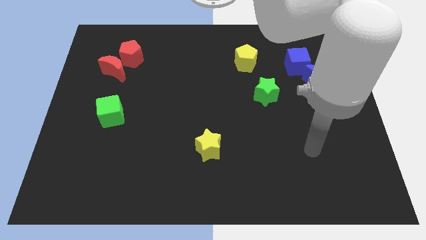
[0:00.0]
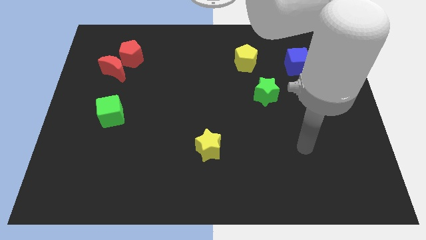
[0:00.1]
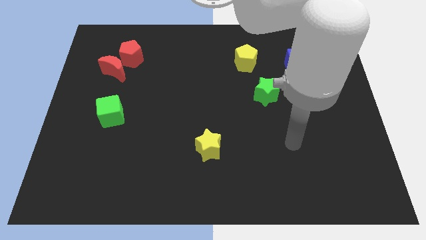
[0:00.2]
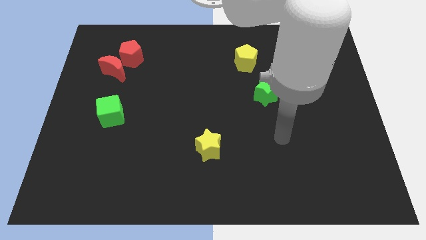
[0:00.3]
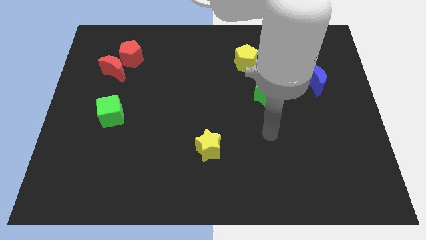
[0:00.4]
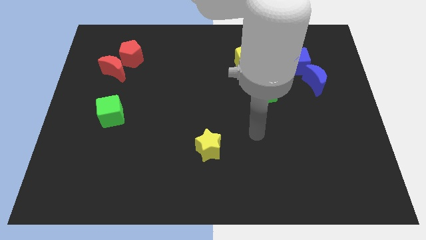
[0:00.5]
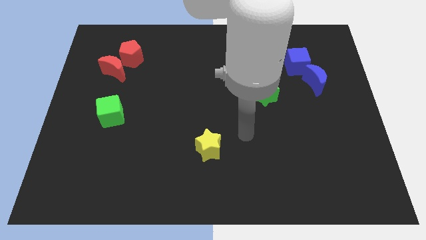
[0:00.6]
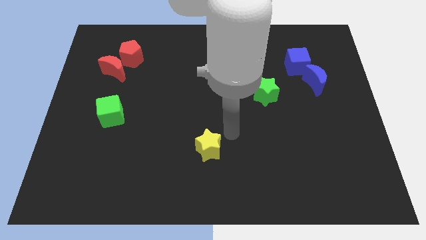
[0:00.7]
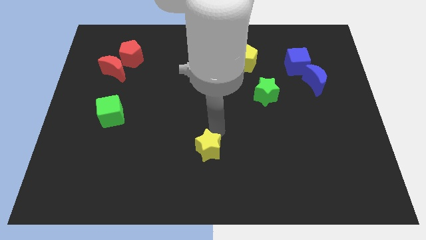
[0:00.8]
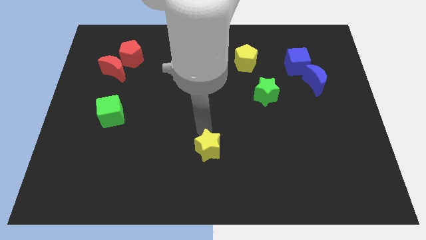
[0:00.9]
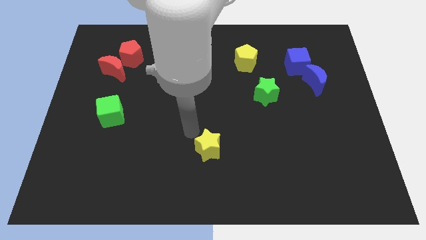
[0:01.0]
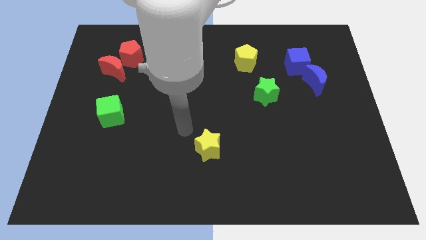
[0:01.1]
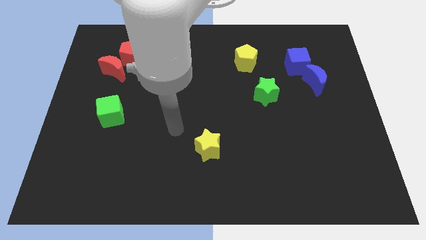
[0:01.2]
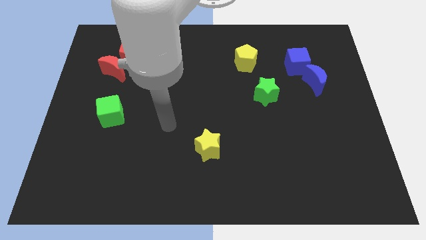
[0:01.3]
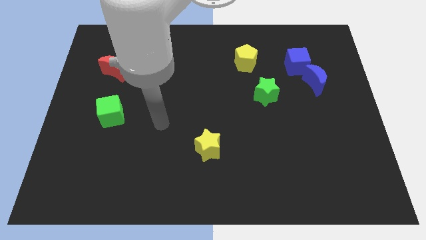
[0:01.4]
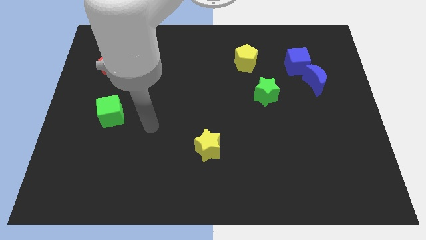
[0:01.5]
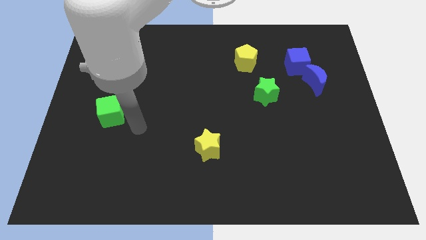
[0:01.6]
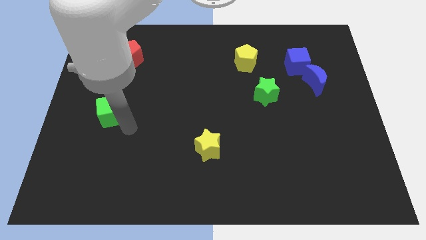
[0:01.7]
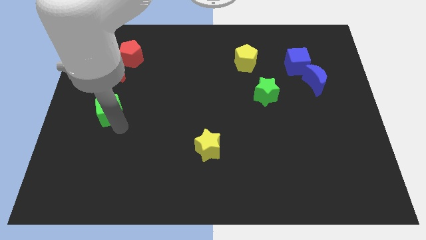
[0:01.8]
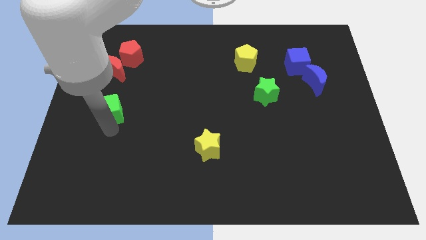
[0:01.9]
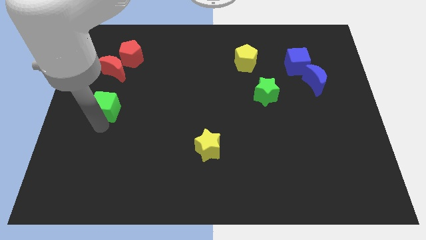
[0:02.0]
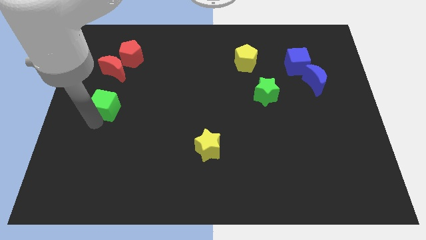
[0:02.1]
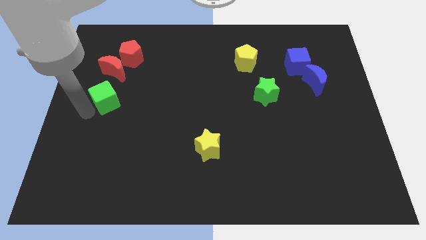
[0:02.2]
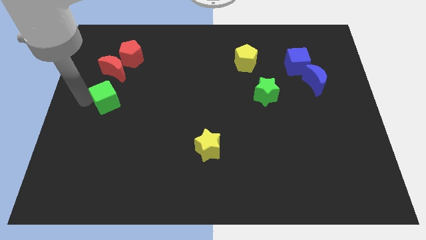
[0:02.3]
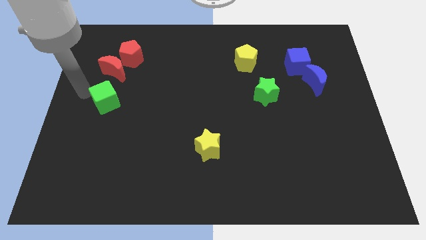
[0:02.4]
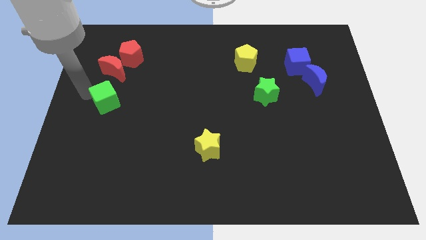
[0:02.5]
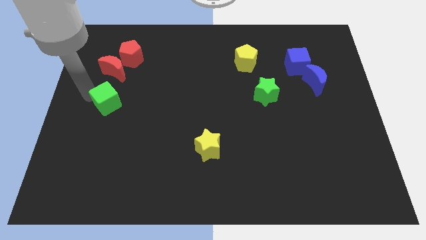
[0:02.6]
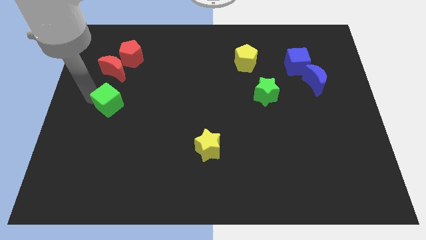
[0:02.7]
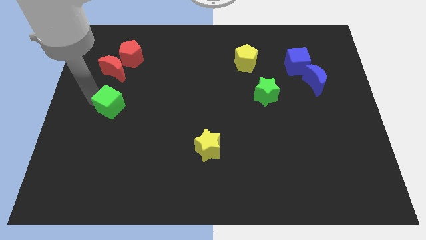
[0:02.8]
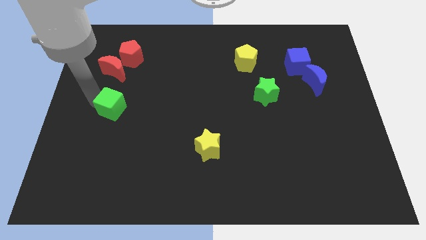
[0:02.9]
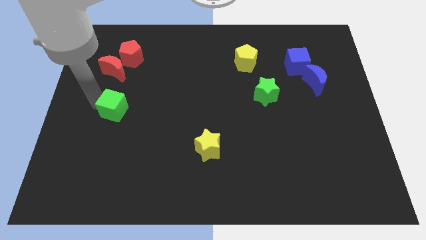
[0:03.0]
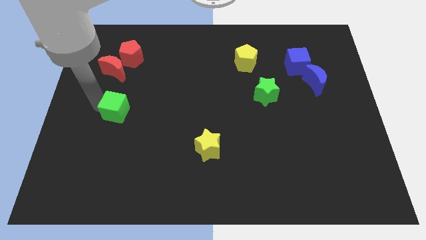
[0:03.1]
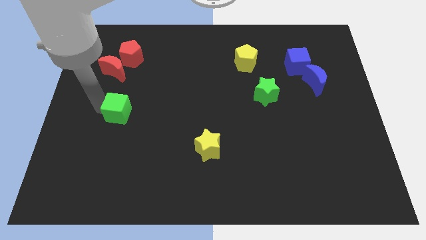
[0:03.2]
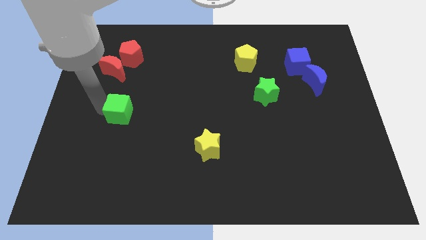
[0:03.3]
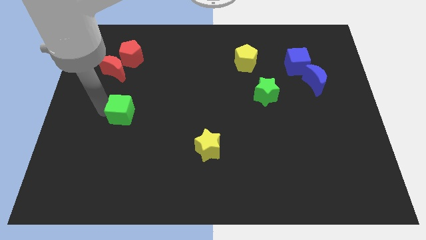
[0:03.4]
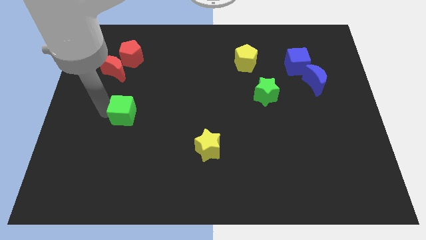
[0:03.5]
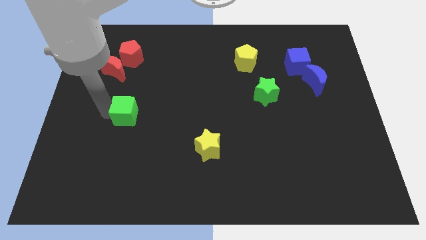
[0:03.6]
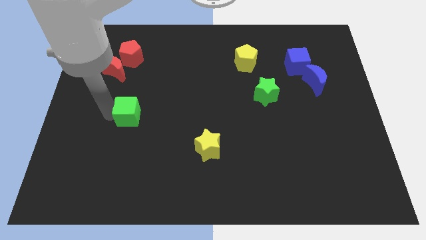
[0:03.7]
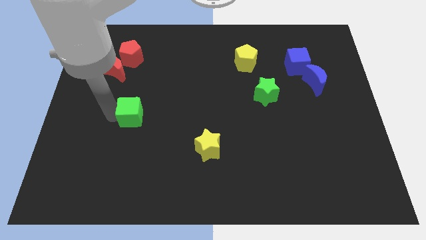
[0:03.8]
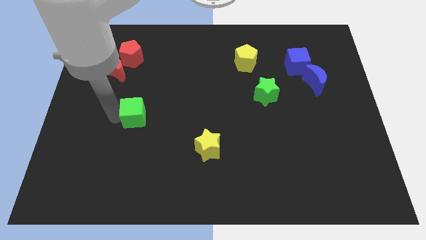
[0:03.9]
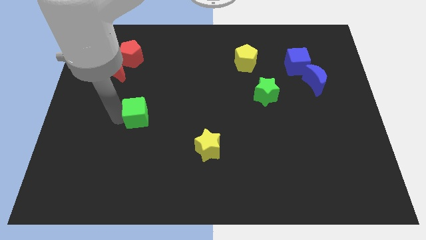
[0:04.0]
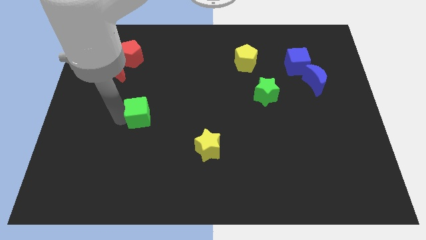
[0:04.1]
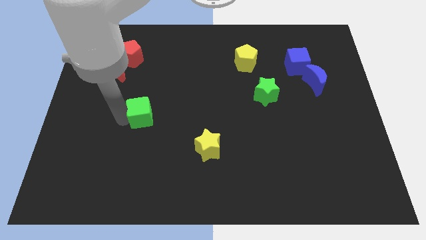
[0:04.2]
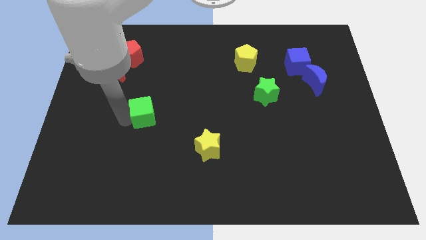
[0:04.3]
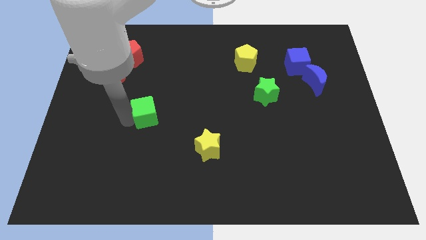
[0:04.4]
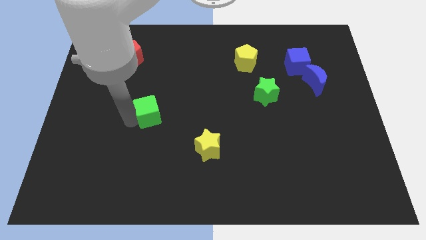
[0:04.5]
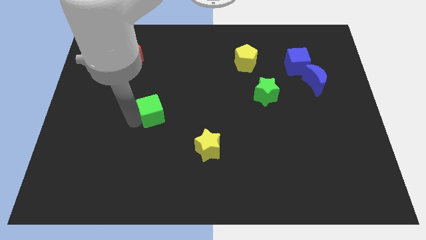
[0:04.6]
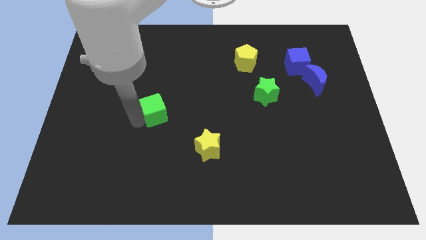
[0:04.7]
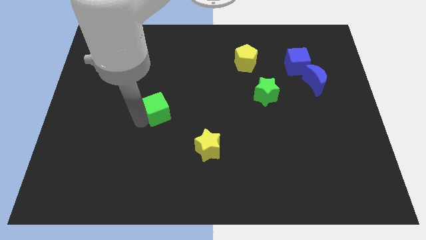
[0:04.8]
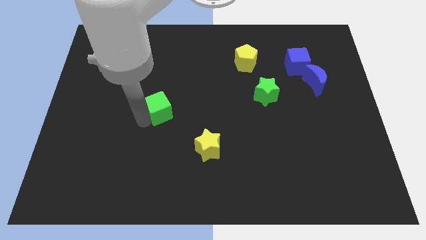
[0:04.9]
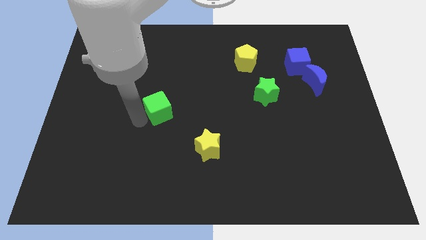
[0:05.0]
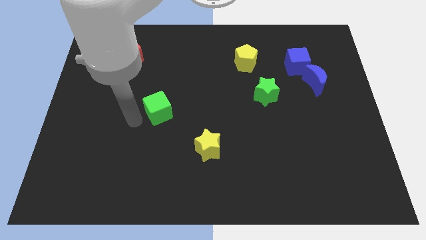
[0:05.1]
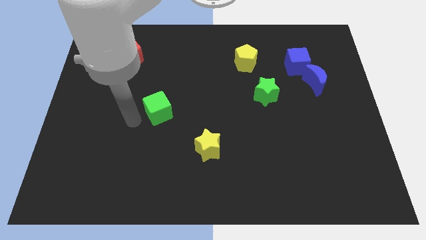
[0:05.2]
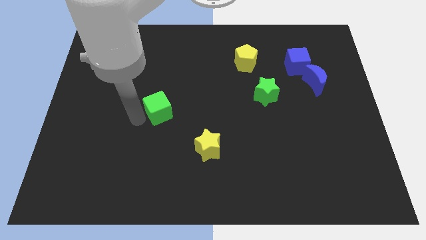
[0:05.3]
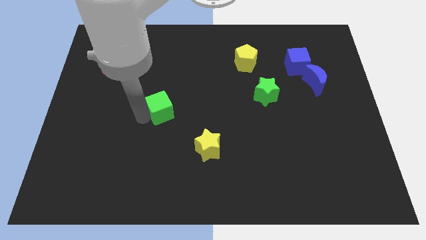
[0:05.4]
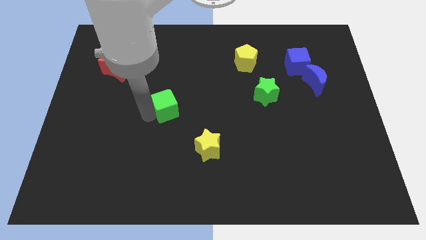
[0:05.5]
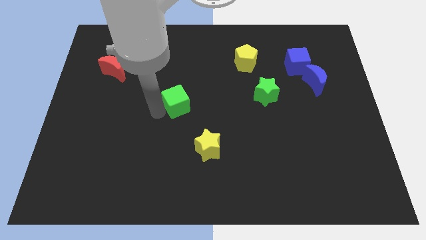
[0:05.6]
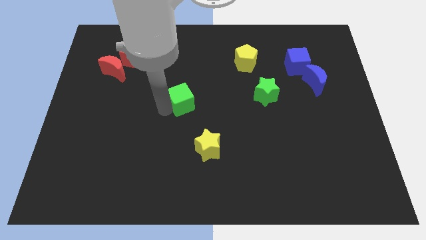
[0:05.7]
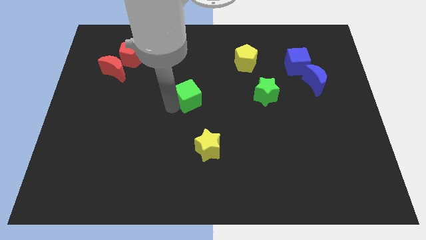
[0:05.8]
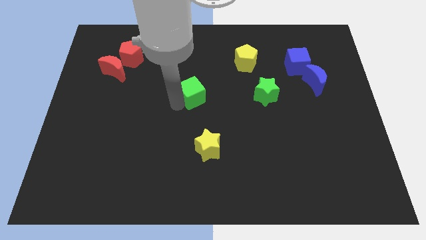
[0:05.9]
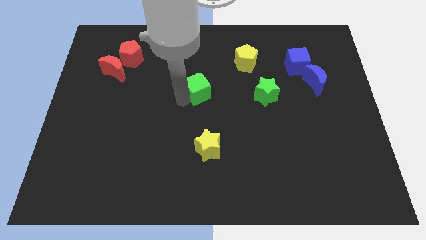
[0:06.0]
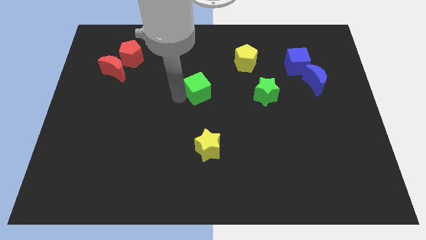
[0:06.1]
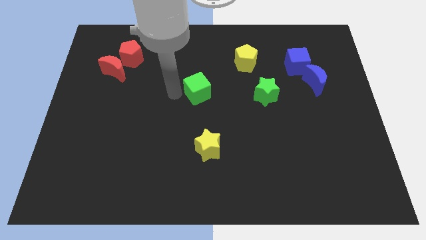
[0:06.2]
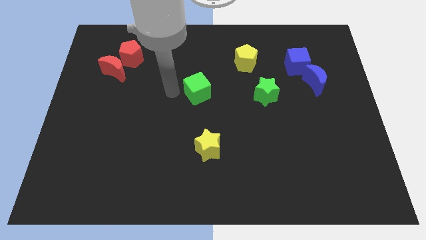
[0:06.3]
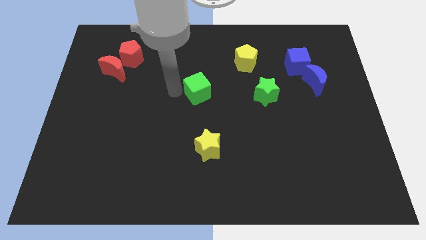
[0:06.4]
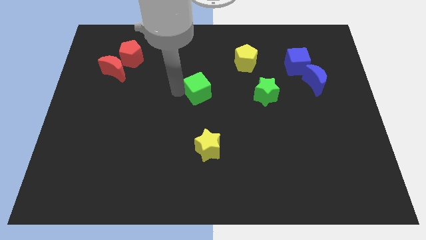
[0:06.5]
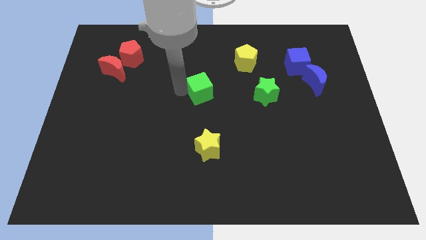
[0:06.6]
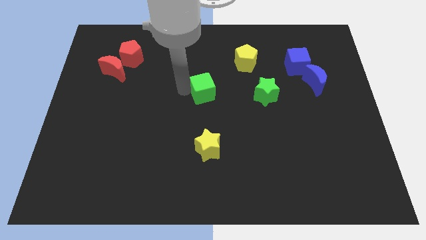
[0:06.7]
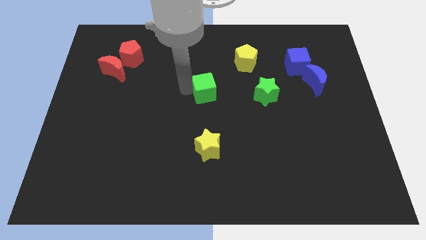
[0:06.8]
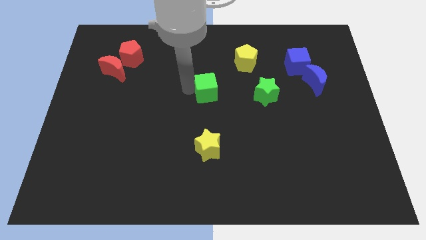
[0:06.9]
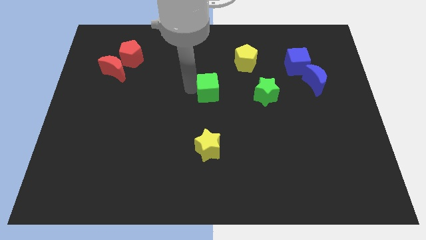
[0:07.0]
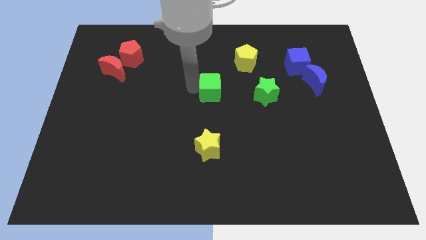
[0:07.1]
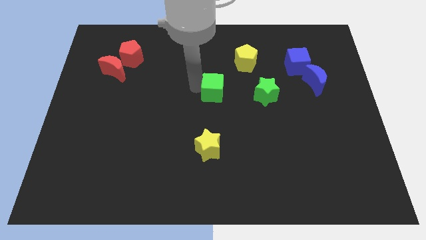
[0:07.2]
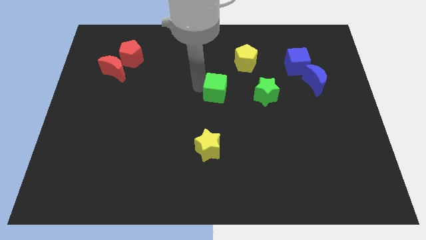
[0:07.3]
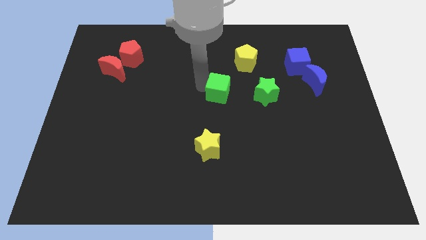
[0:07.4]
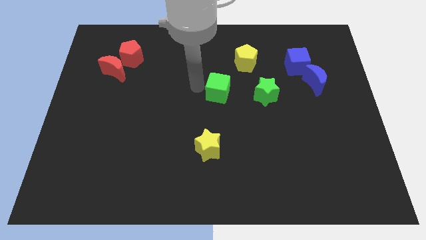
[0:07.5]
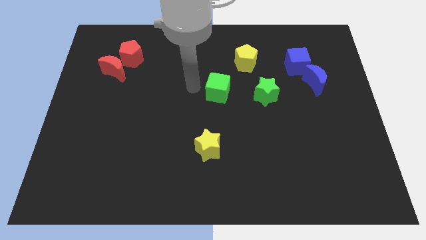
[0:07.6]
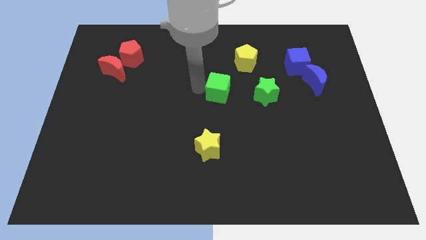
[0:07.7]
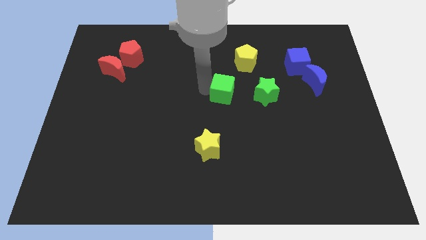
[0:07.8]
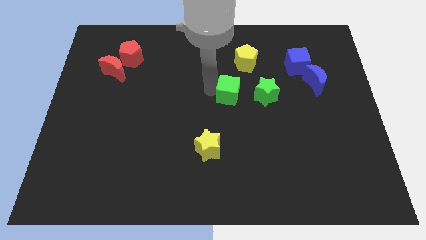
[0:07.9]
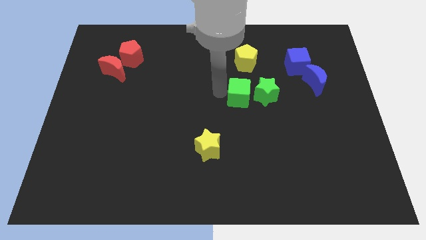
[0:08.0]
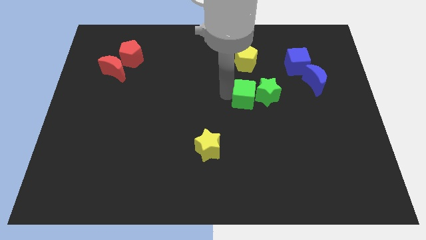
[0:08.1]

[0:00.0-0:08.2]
put the green cube to the green star
